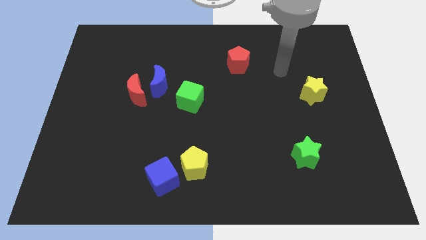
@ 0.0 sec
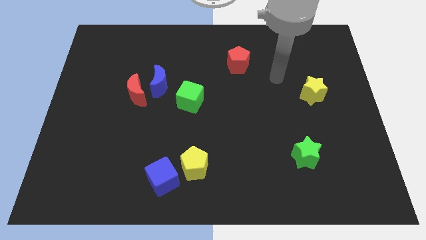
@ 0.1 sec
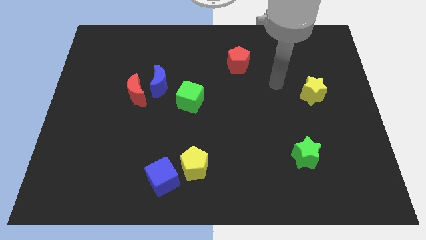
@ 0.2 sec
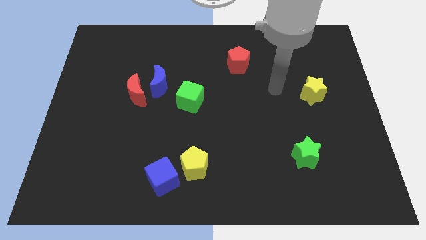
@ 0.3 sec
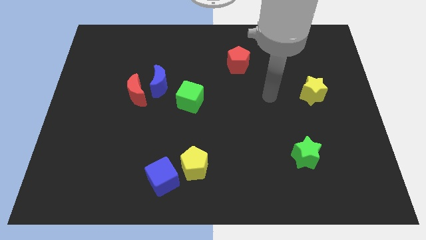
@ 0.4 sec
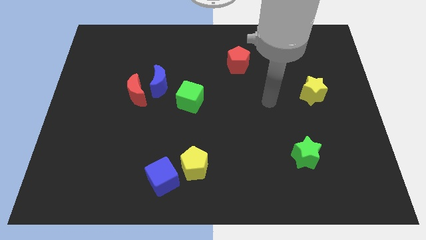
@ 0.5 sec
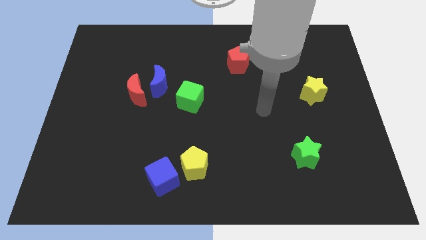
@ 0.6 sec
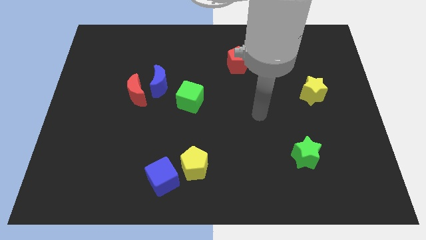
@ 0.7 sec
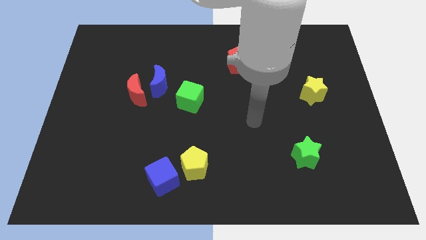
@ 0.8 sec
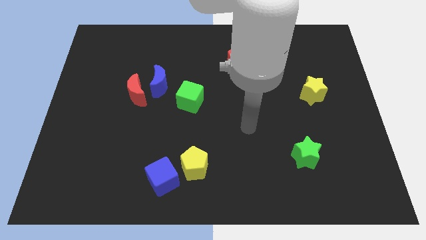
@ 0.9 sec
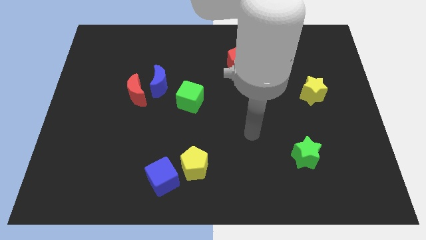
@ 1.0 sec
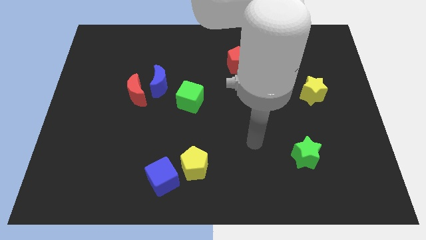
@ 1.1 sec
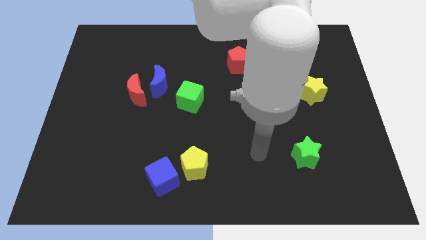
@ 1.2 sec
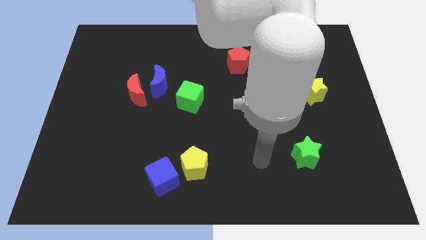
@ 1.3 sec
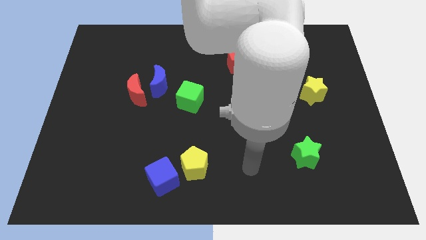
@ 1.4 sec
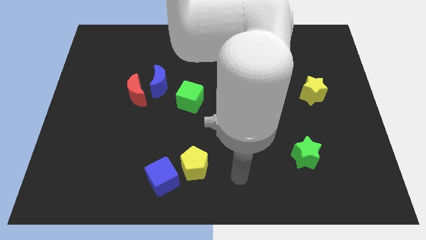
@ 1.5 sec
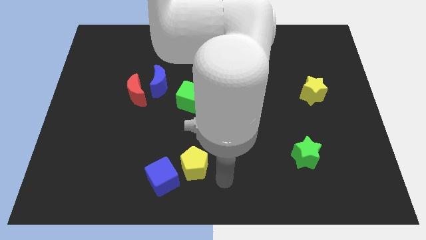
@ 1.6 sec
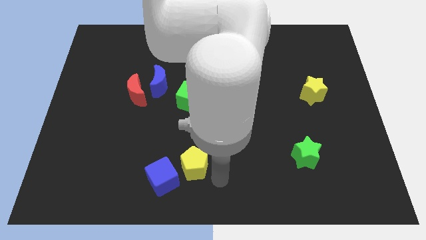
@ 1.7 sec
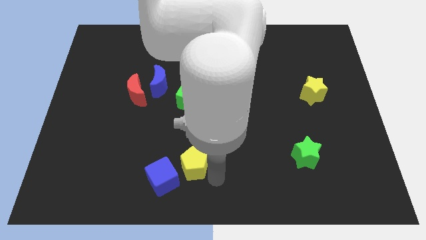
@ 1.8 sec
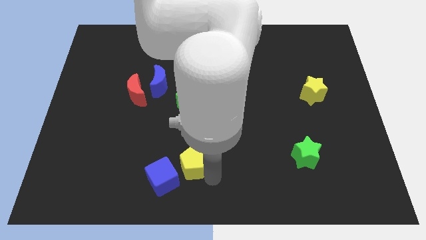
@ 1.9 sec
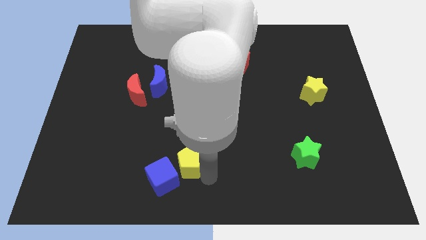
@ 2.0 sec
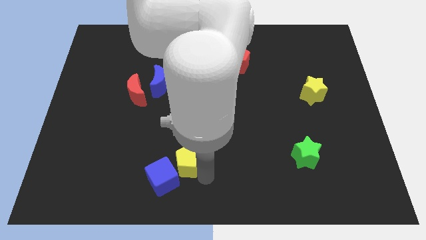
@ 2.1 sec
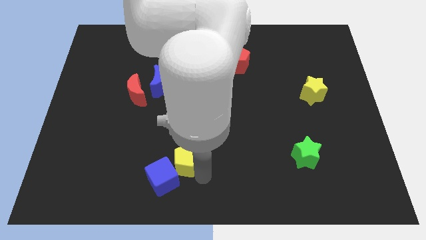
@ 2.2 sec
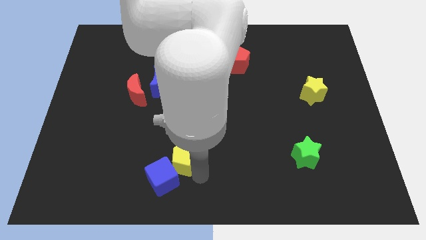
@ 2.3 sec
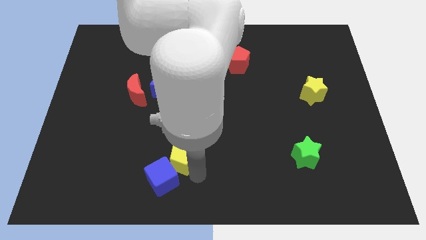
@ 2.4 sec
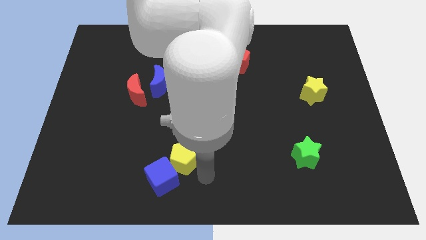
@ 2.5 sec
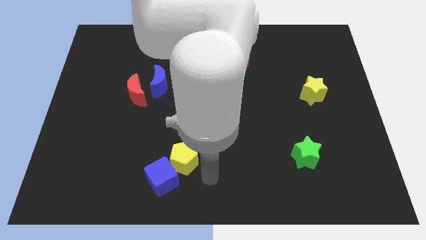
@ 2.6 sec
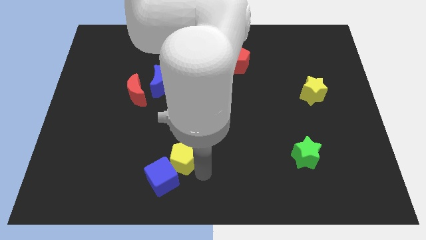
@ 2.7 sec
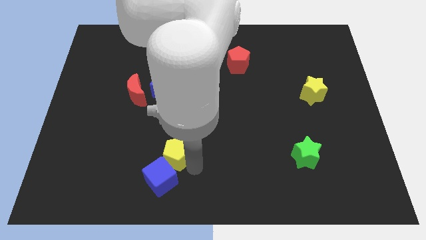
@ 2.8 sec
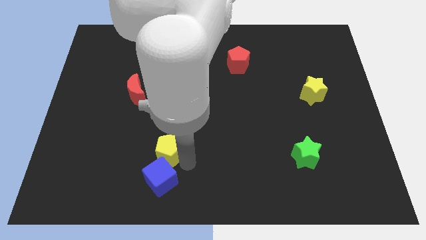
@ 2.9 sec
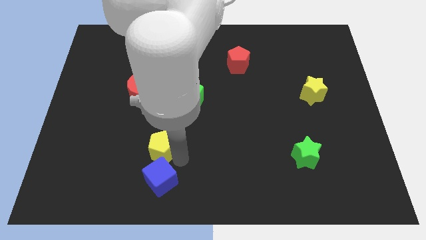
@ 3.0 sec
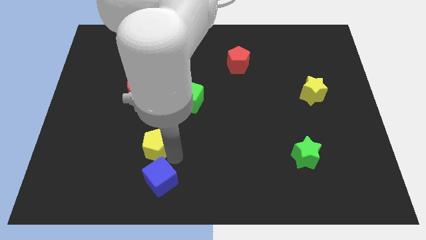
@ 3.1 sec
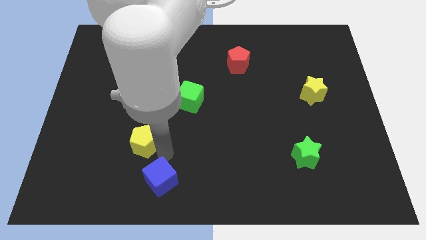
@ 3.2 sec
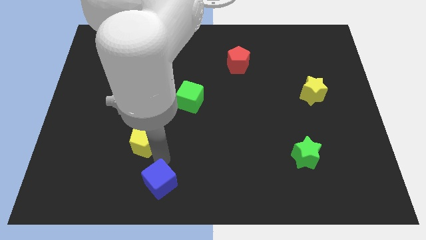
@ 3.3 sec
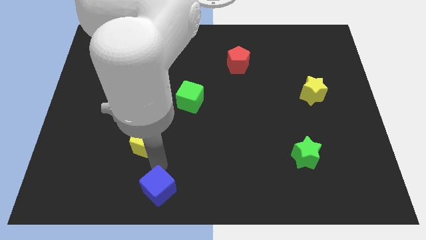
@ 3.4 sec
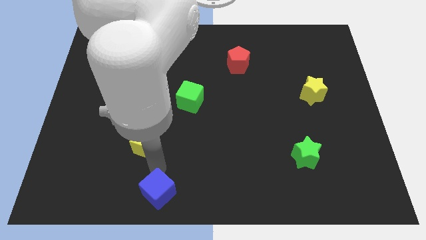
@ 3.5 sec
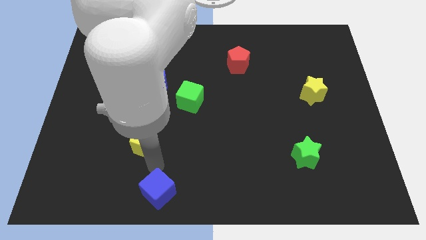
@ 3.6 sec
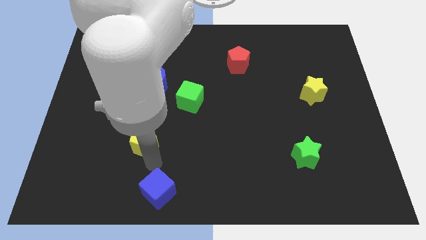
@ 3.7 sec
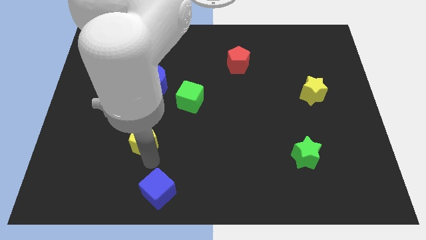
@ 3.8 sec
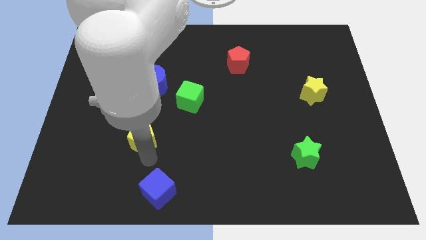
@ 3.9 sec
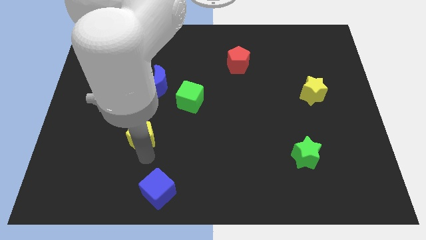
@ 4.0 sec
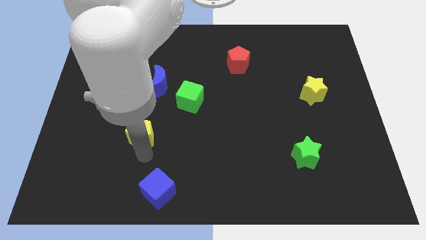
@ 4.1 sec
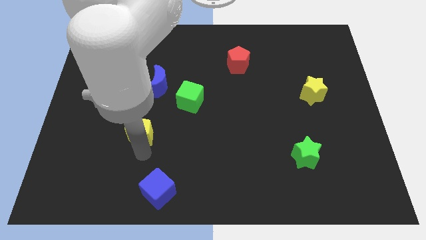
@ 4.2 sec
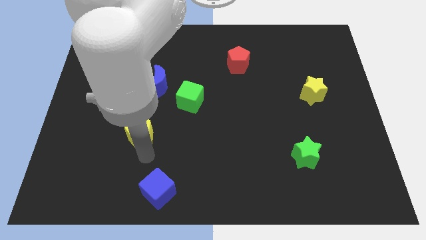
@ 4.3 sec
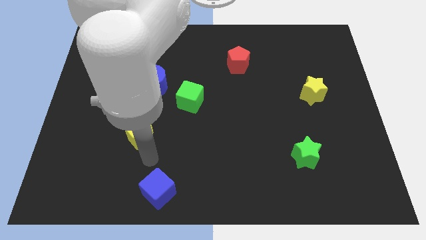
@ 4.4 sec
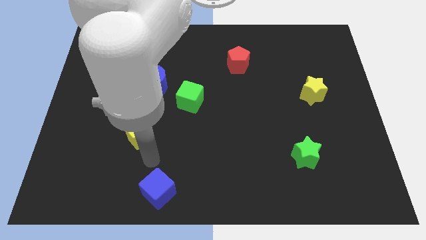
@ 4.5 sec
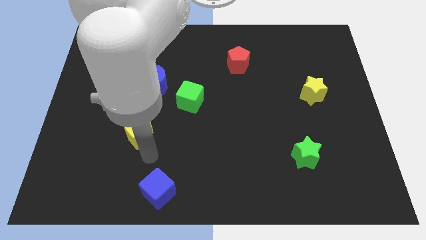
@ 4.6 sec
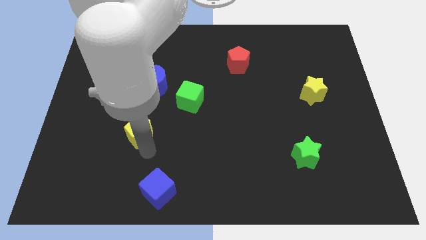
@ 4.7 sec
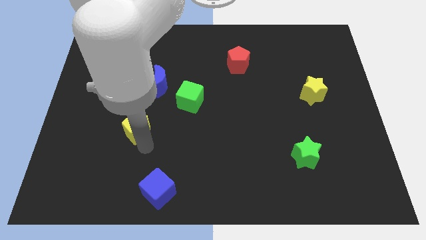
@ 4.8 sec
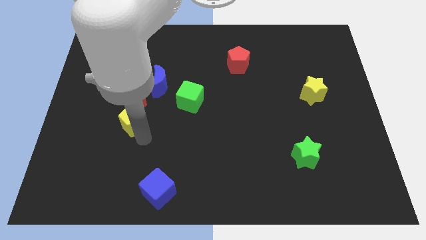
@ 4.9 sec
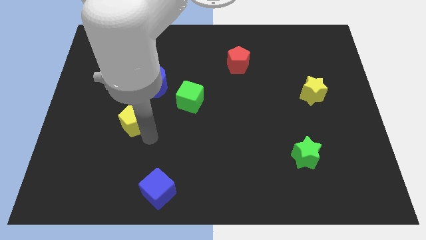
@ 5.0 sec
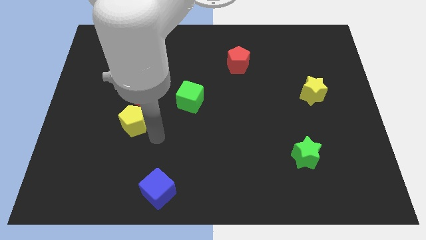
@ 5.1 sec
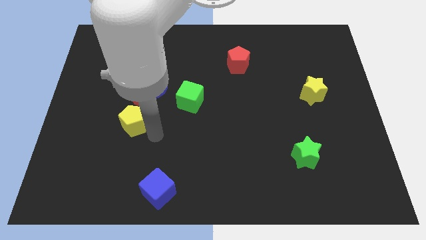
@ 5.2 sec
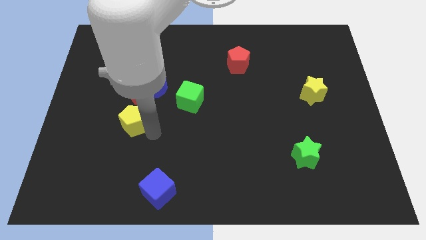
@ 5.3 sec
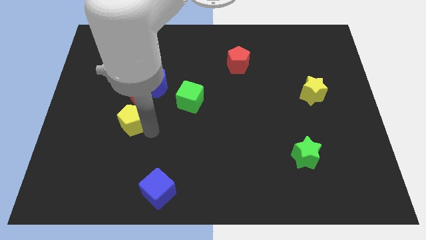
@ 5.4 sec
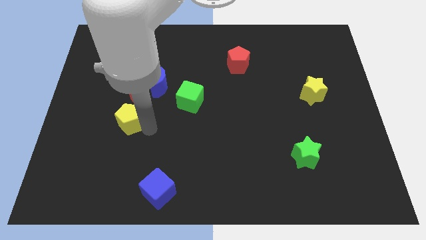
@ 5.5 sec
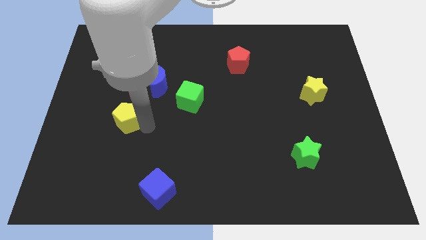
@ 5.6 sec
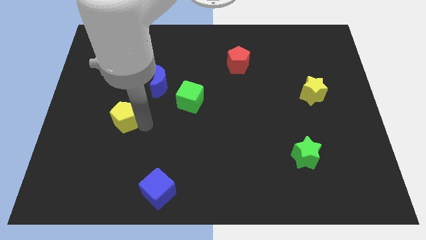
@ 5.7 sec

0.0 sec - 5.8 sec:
push the yellow pentagon to the bottom left of the red moon
